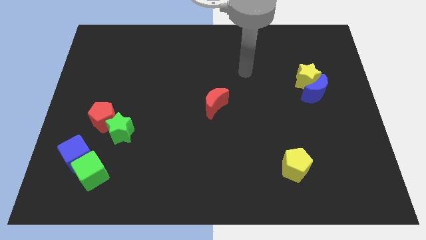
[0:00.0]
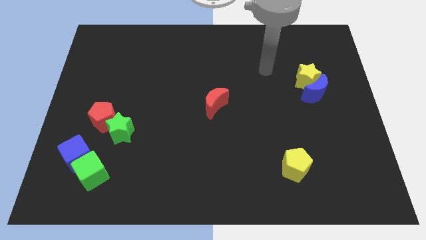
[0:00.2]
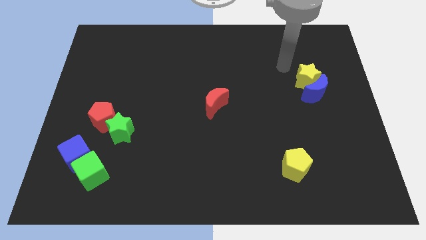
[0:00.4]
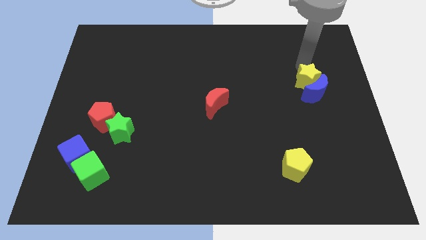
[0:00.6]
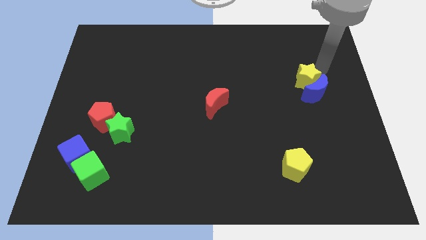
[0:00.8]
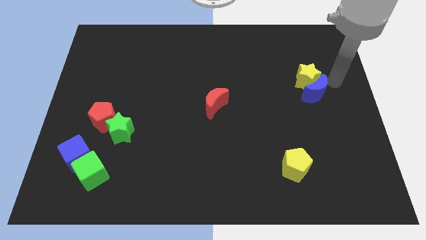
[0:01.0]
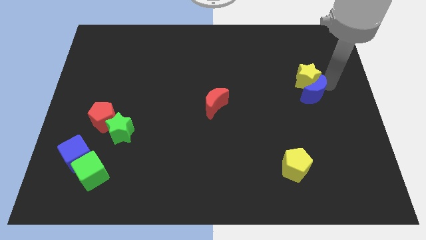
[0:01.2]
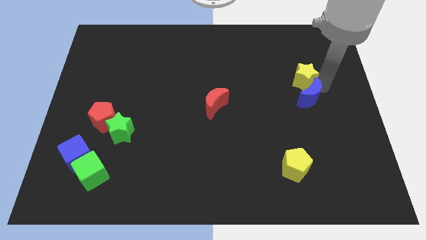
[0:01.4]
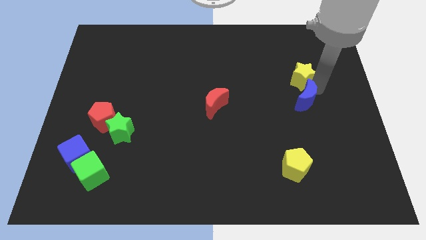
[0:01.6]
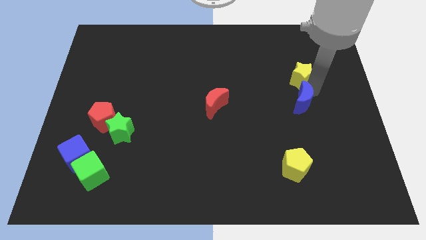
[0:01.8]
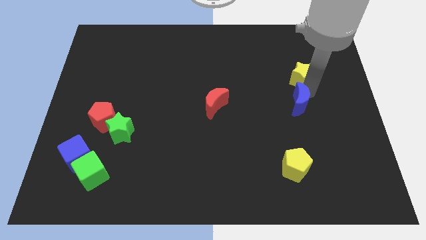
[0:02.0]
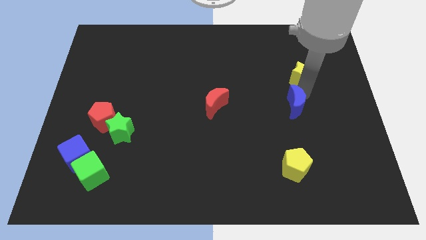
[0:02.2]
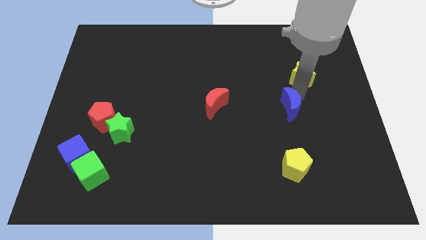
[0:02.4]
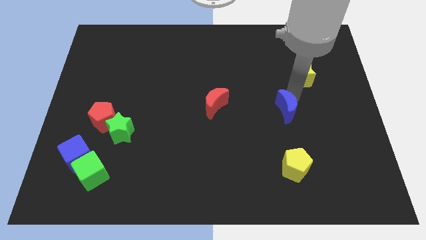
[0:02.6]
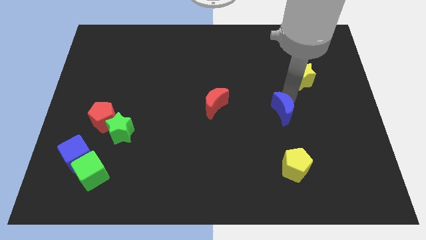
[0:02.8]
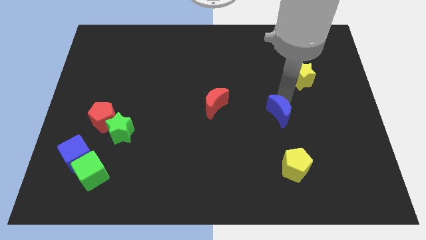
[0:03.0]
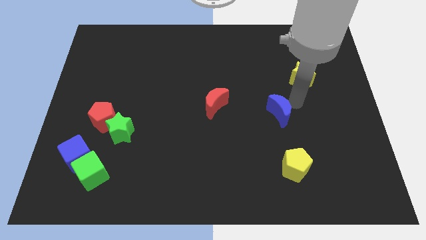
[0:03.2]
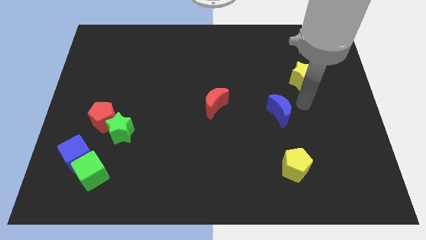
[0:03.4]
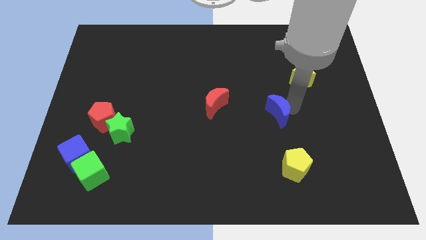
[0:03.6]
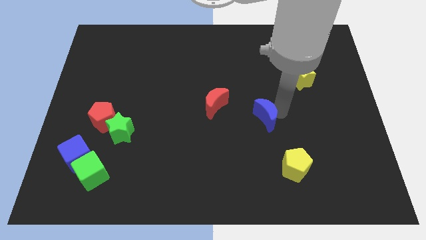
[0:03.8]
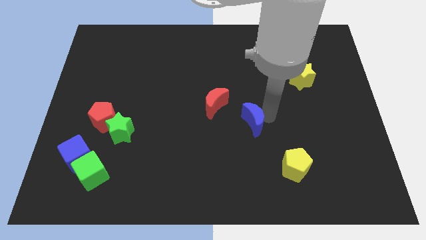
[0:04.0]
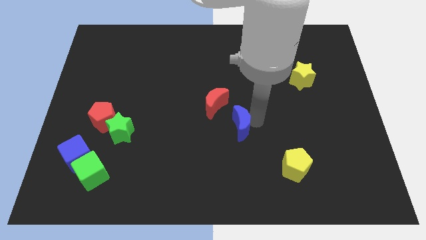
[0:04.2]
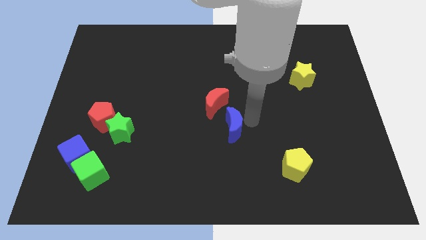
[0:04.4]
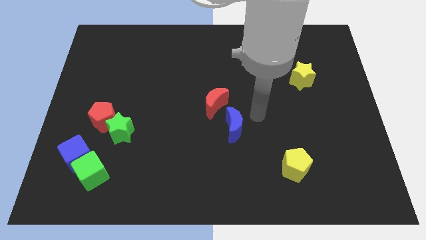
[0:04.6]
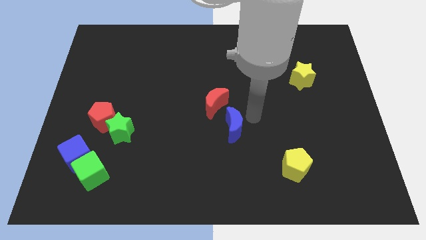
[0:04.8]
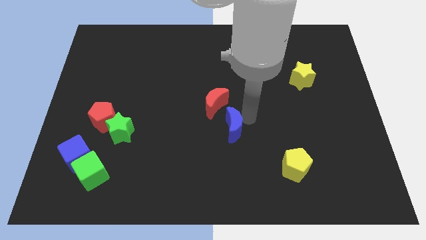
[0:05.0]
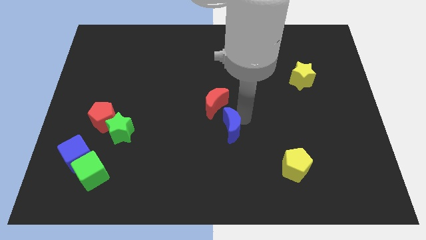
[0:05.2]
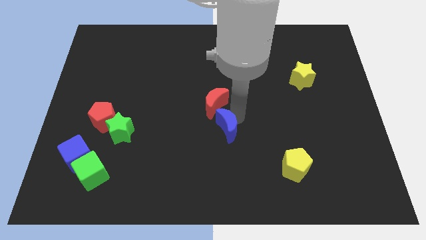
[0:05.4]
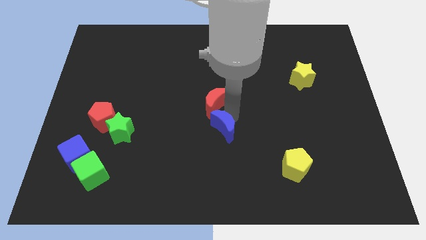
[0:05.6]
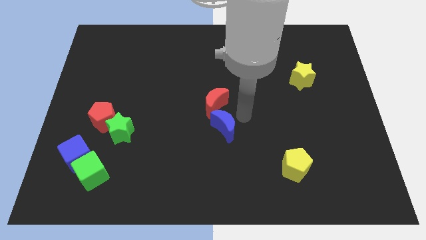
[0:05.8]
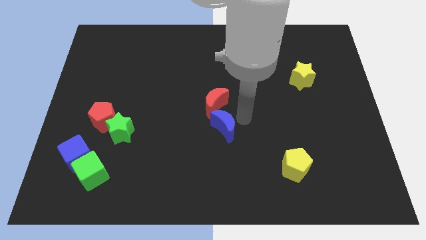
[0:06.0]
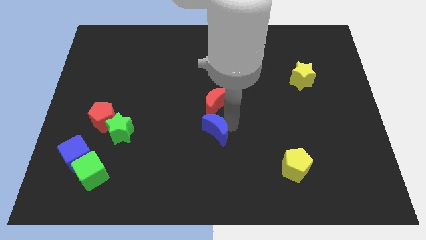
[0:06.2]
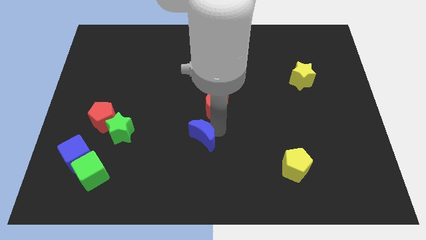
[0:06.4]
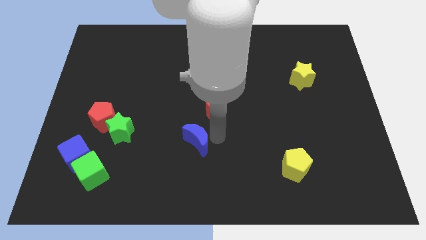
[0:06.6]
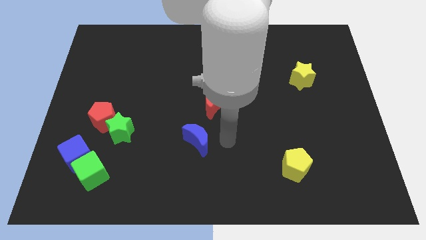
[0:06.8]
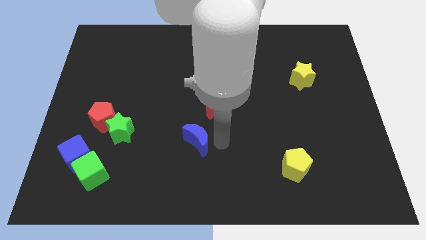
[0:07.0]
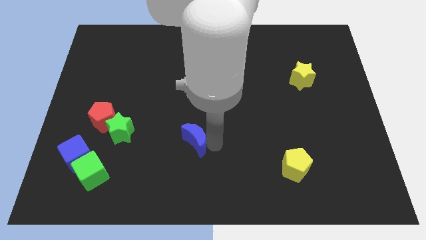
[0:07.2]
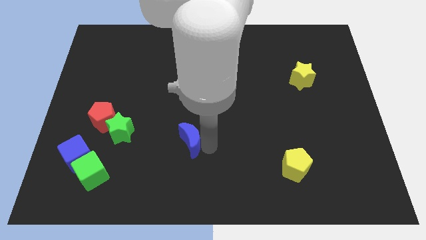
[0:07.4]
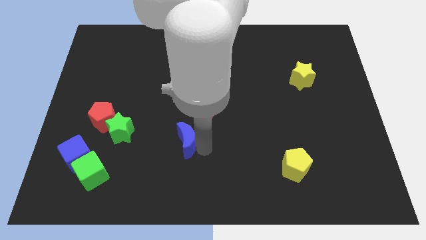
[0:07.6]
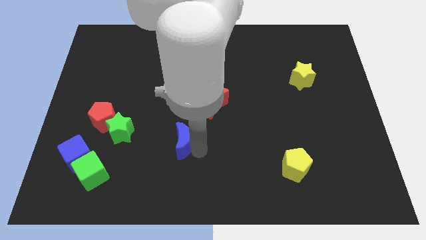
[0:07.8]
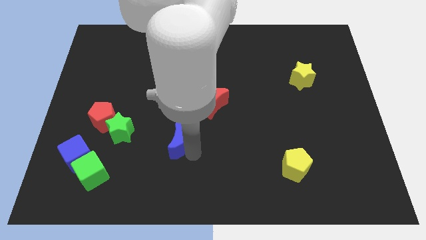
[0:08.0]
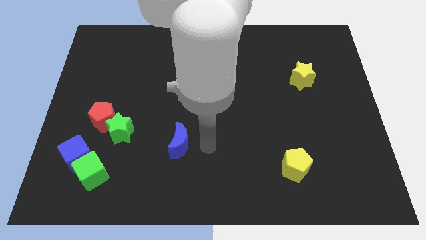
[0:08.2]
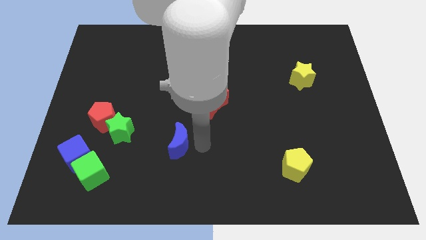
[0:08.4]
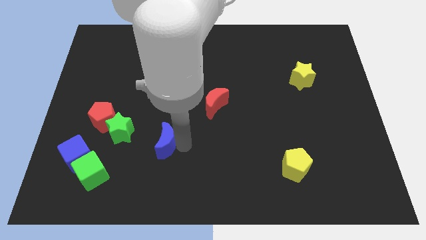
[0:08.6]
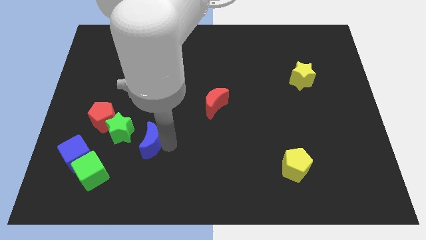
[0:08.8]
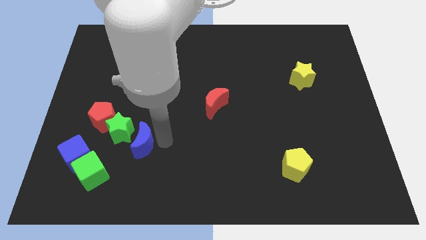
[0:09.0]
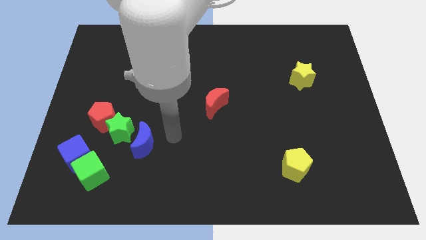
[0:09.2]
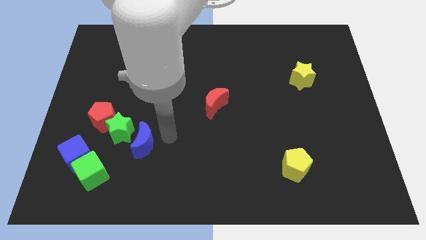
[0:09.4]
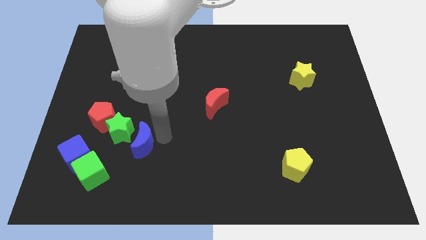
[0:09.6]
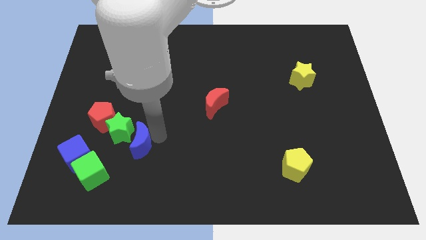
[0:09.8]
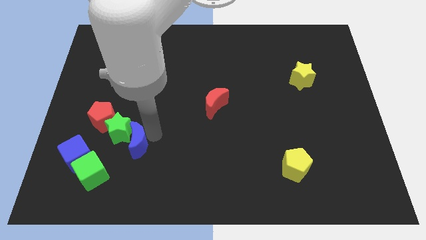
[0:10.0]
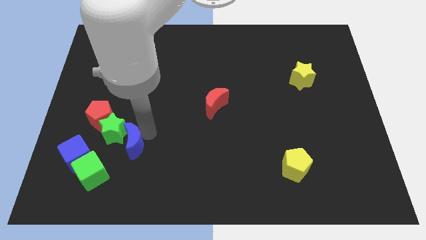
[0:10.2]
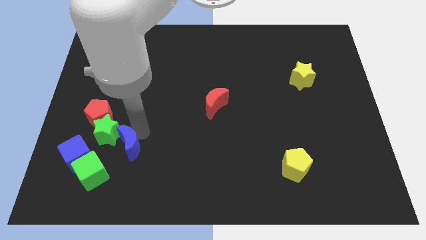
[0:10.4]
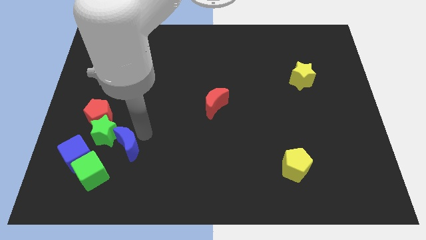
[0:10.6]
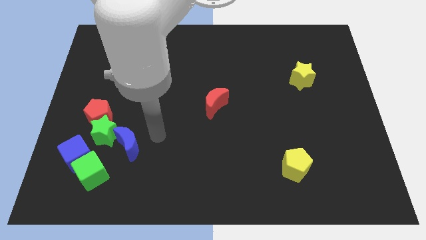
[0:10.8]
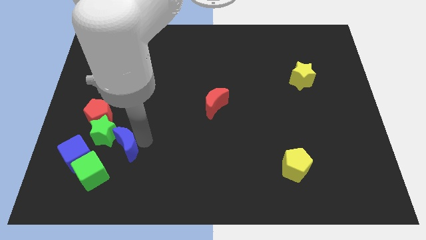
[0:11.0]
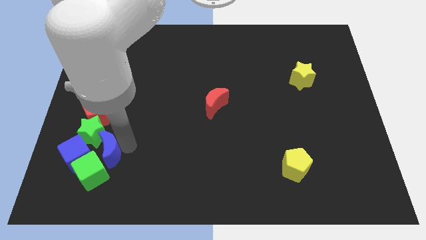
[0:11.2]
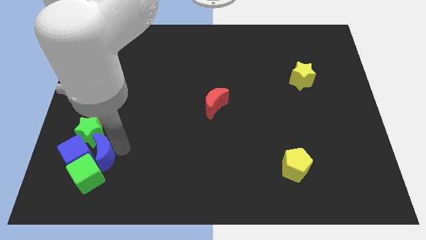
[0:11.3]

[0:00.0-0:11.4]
slide the blue moon towards the blue cube

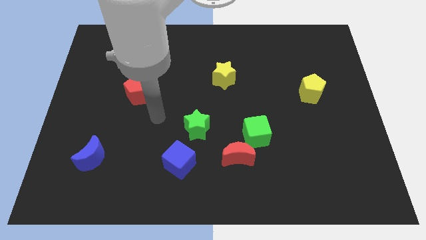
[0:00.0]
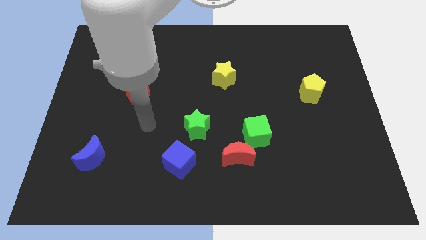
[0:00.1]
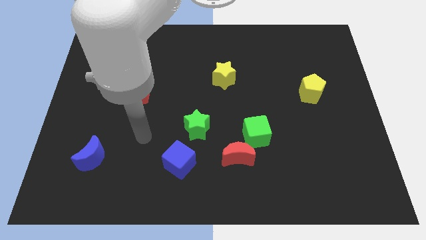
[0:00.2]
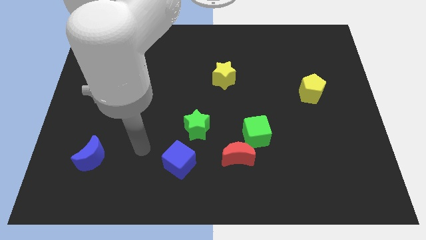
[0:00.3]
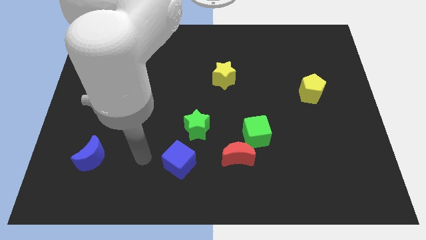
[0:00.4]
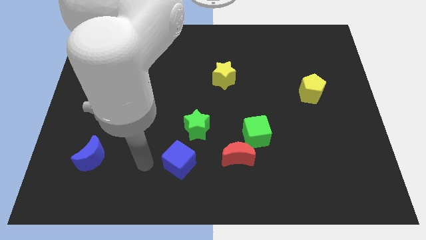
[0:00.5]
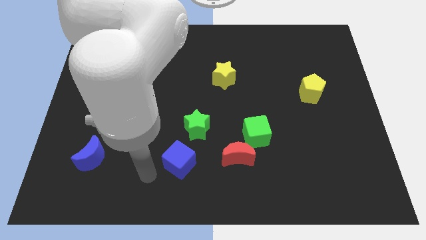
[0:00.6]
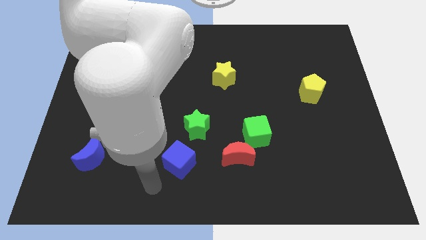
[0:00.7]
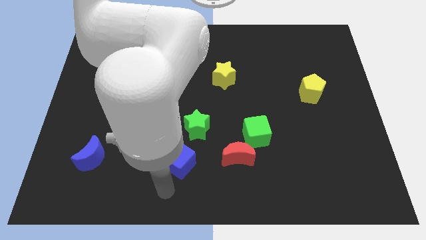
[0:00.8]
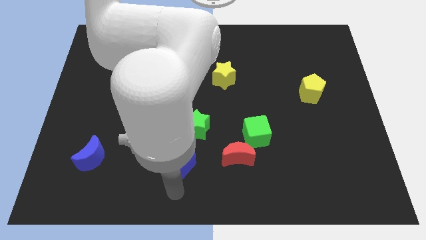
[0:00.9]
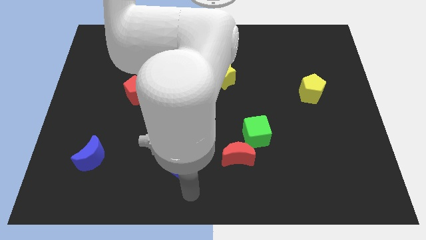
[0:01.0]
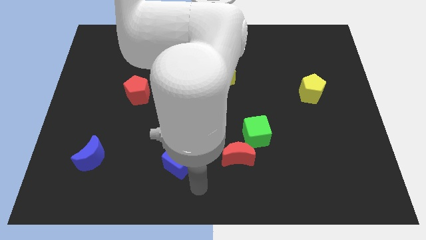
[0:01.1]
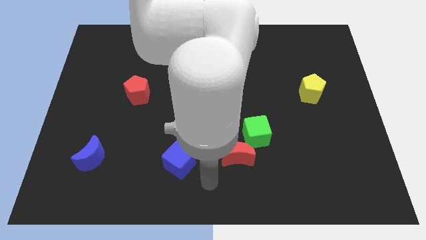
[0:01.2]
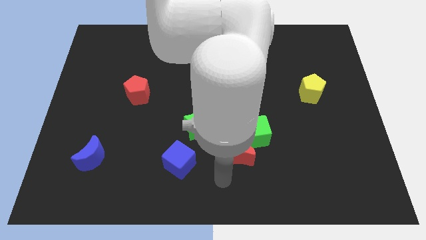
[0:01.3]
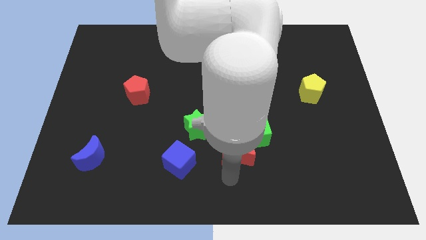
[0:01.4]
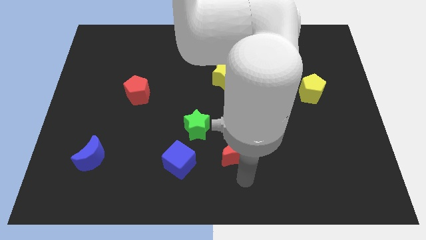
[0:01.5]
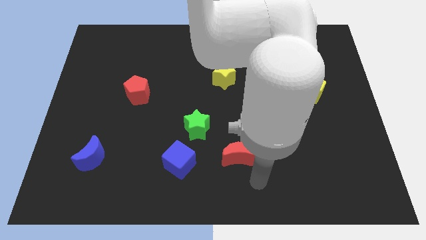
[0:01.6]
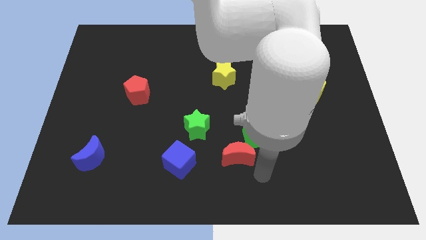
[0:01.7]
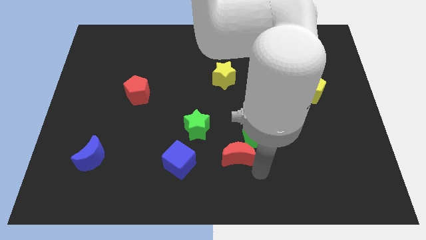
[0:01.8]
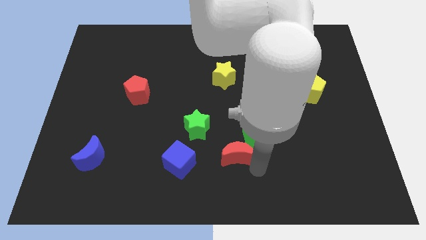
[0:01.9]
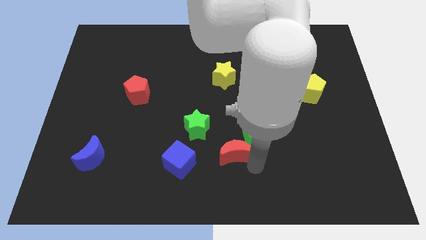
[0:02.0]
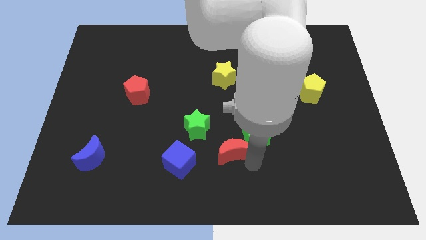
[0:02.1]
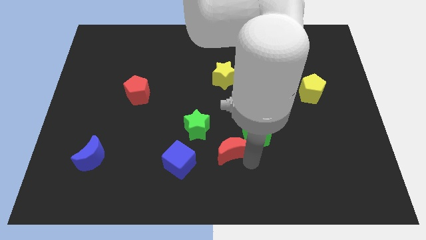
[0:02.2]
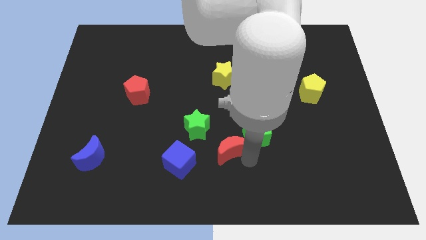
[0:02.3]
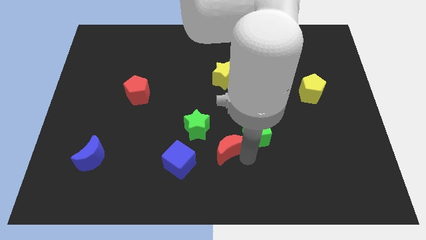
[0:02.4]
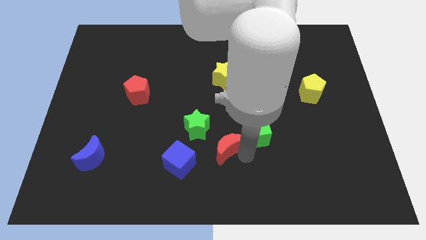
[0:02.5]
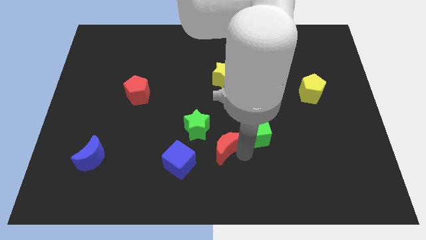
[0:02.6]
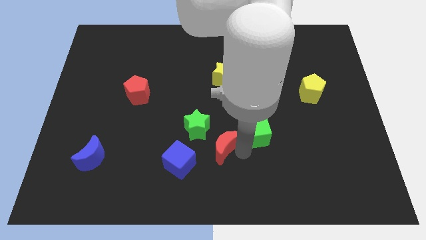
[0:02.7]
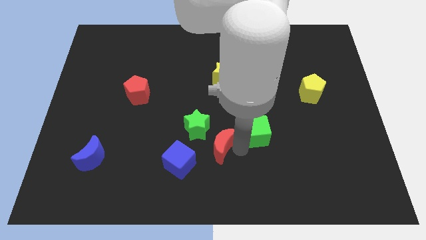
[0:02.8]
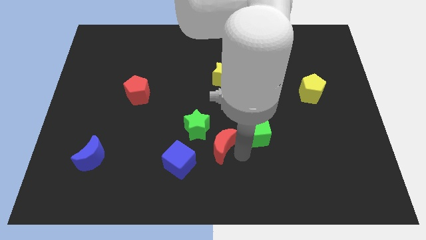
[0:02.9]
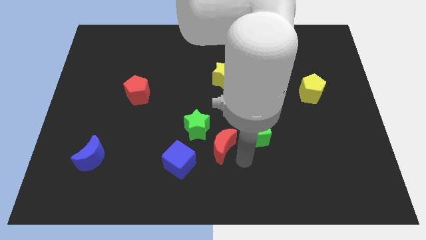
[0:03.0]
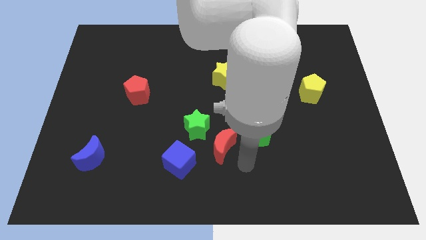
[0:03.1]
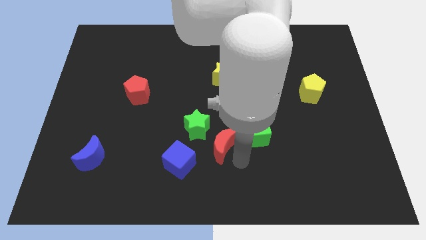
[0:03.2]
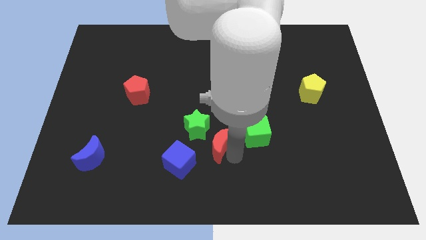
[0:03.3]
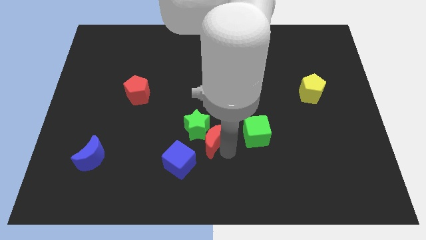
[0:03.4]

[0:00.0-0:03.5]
slide the red moon next to the green star
